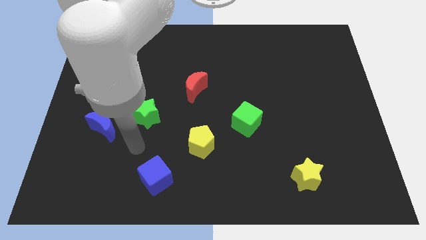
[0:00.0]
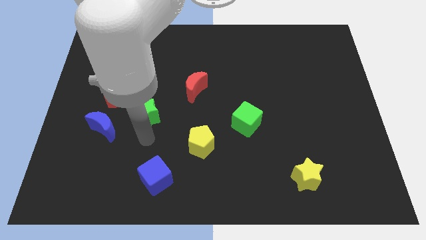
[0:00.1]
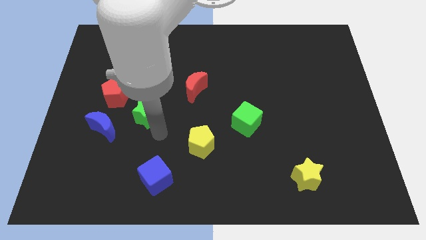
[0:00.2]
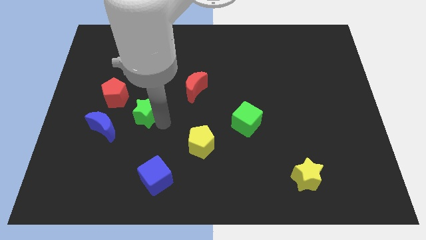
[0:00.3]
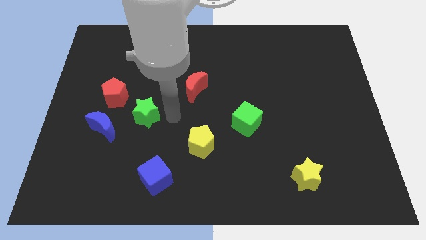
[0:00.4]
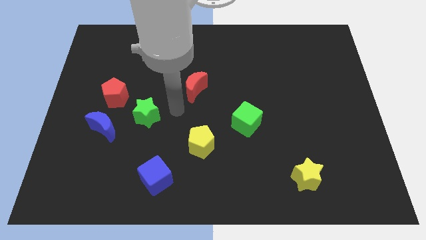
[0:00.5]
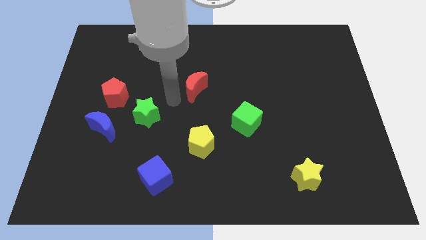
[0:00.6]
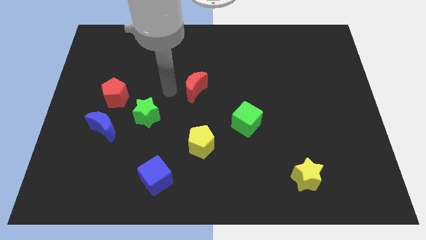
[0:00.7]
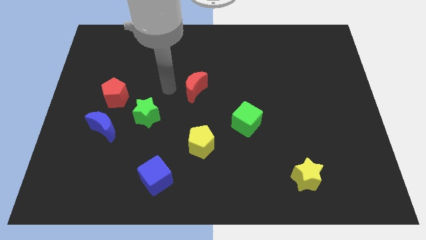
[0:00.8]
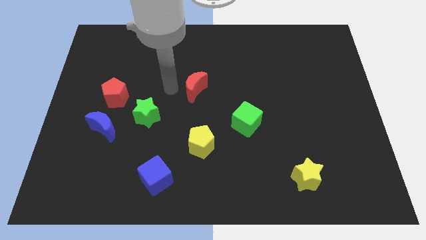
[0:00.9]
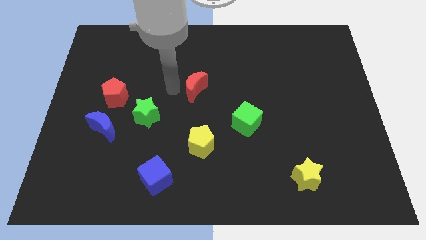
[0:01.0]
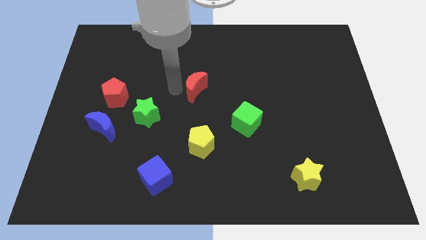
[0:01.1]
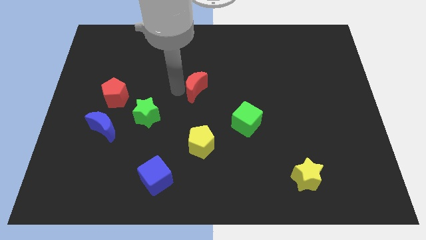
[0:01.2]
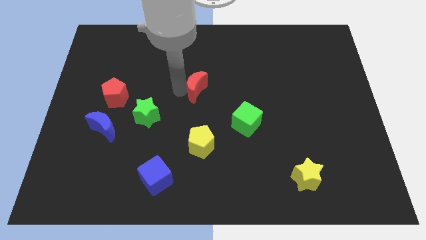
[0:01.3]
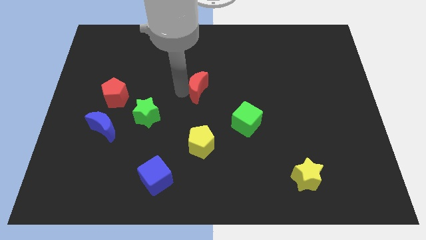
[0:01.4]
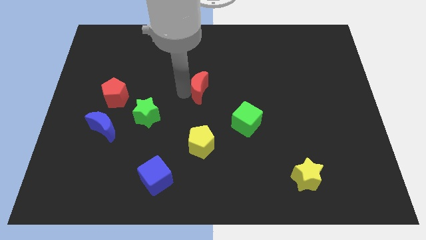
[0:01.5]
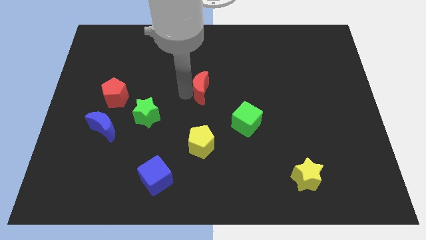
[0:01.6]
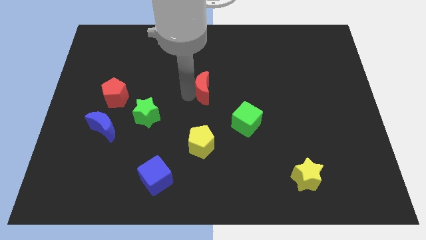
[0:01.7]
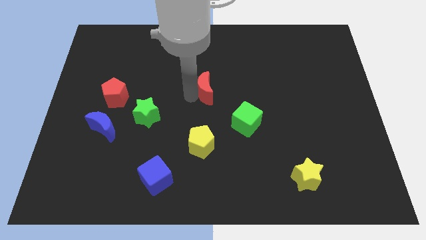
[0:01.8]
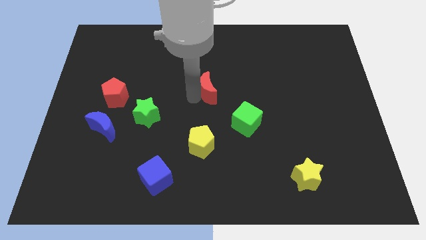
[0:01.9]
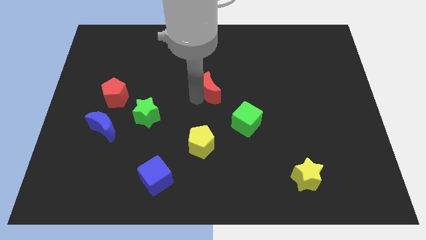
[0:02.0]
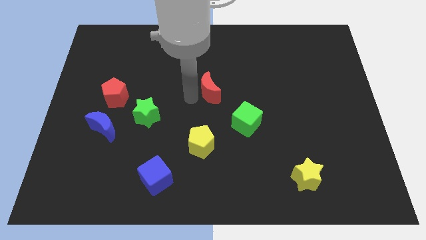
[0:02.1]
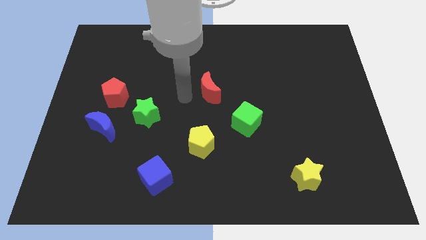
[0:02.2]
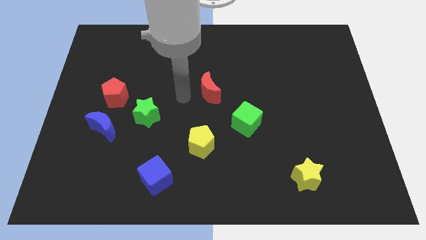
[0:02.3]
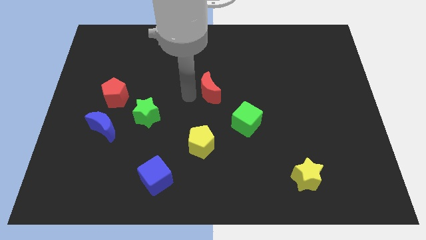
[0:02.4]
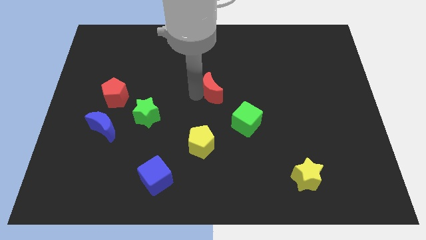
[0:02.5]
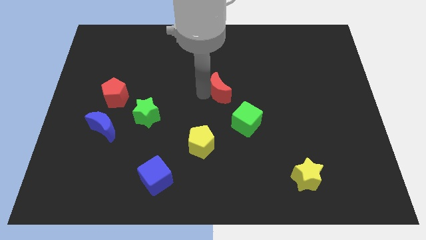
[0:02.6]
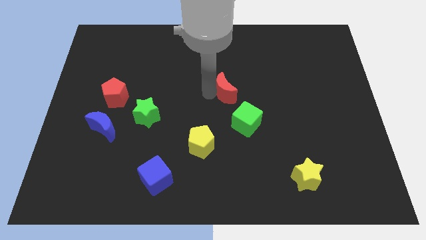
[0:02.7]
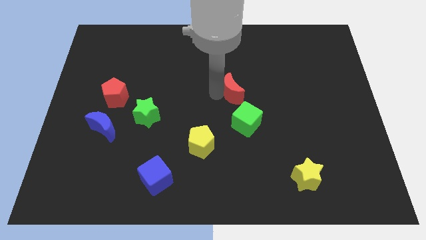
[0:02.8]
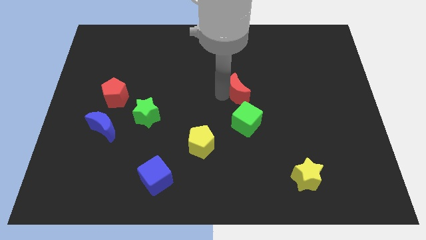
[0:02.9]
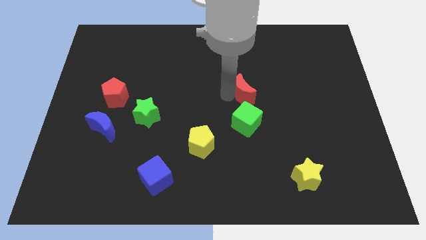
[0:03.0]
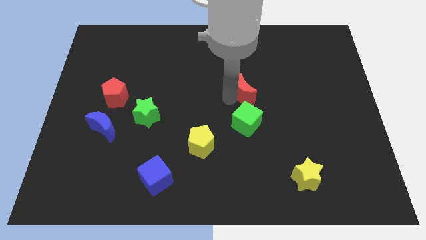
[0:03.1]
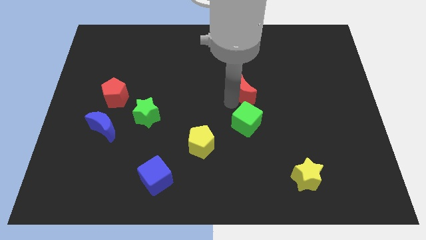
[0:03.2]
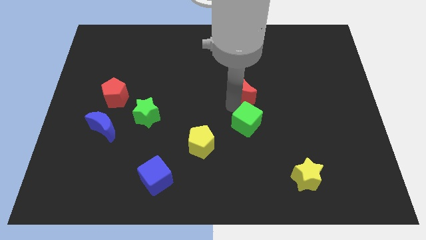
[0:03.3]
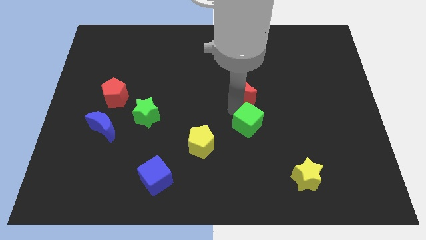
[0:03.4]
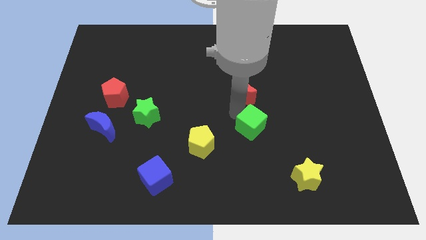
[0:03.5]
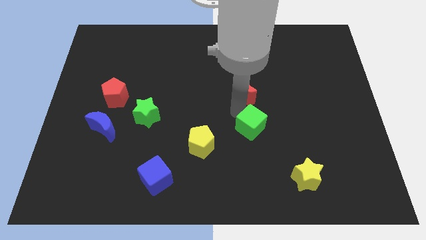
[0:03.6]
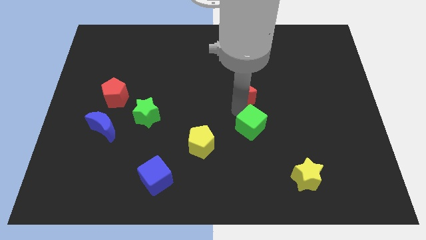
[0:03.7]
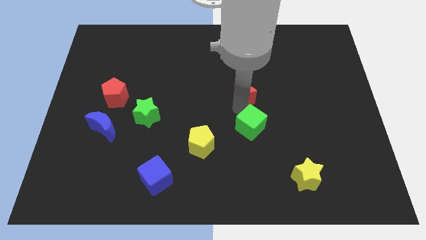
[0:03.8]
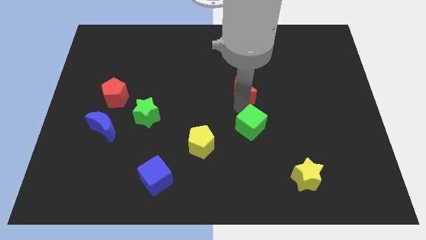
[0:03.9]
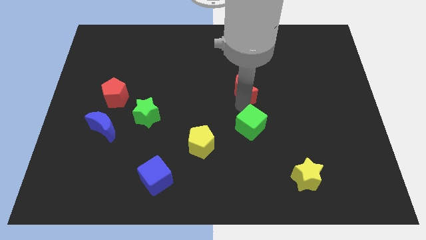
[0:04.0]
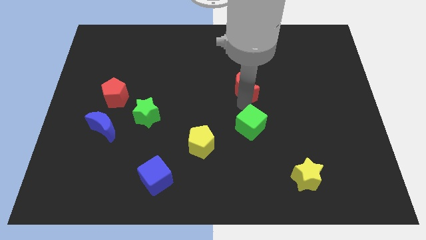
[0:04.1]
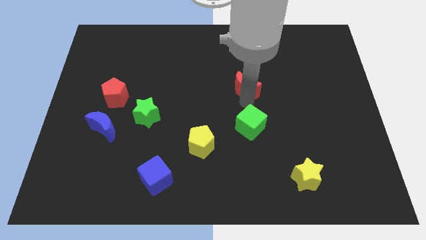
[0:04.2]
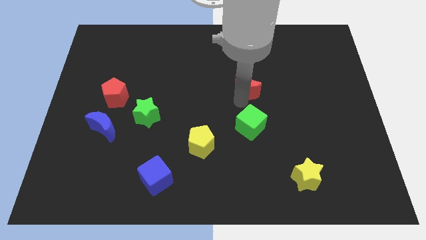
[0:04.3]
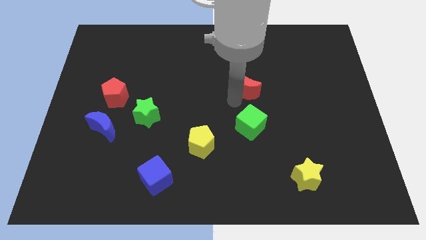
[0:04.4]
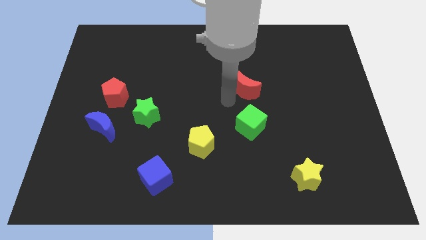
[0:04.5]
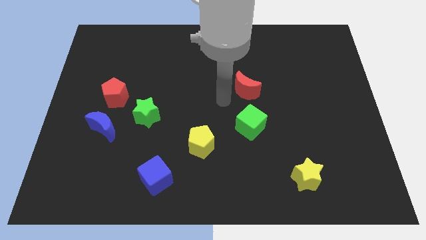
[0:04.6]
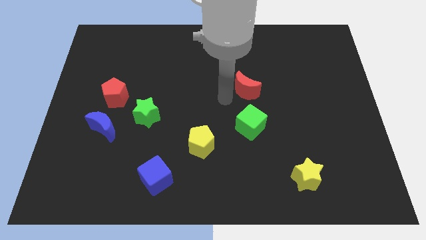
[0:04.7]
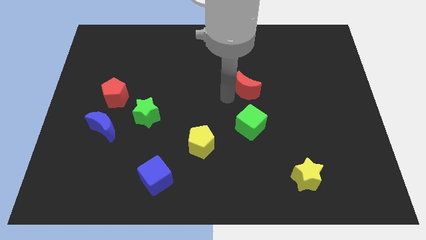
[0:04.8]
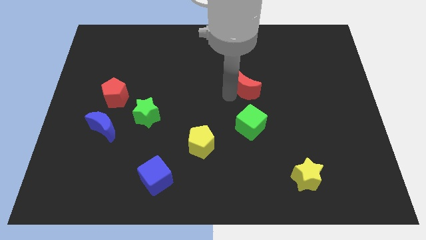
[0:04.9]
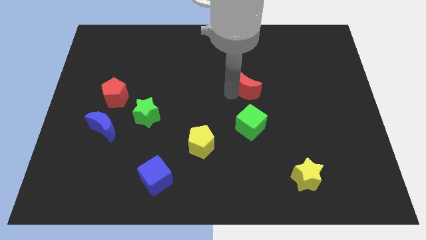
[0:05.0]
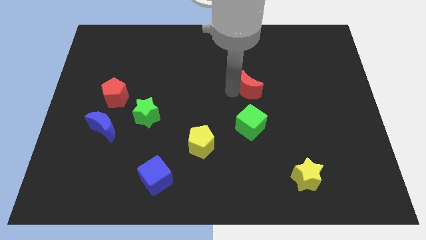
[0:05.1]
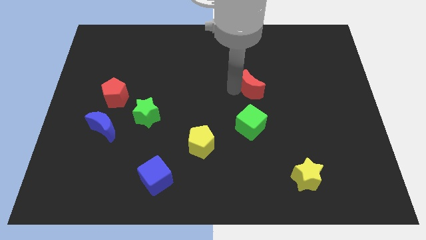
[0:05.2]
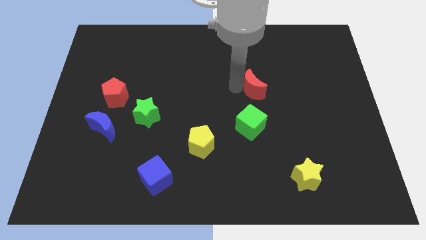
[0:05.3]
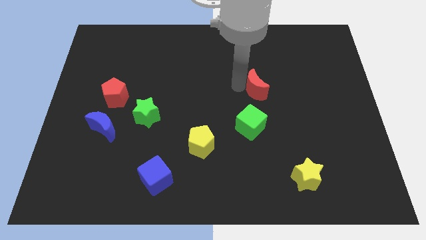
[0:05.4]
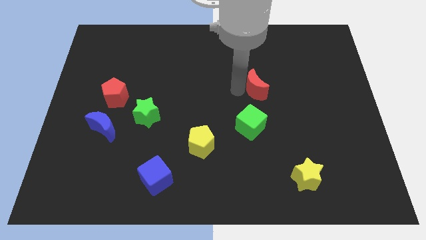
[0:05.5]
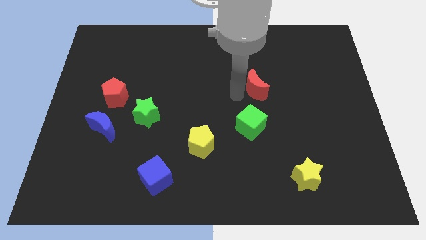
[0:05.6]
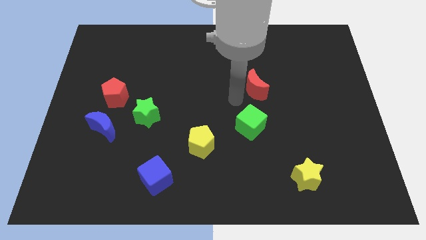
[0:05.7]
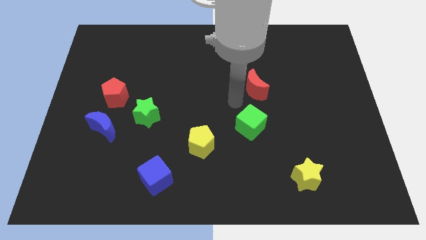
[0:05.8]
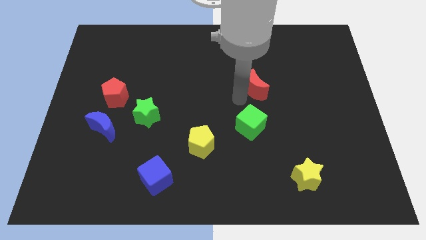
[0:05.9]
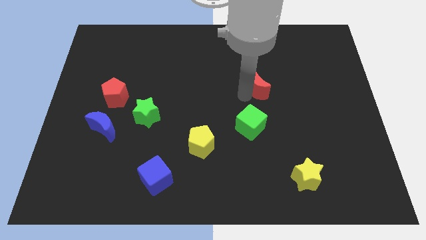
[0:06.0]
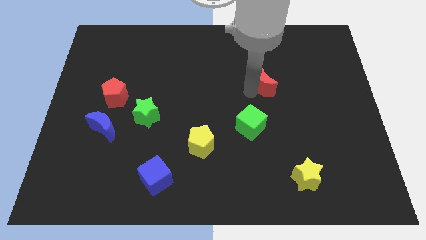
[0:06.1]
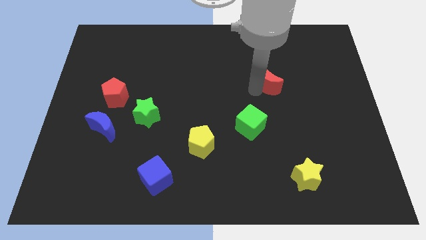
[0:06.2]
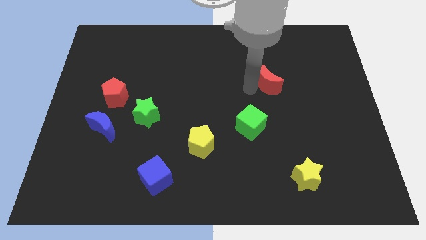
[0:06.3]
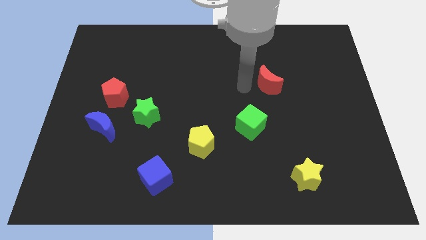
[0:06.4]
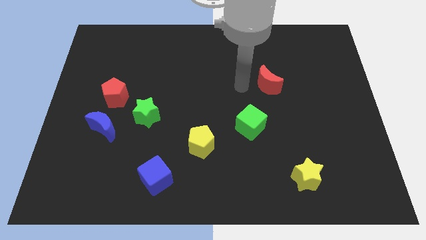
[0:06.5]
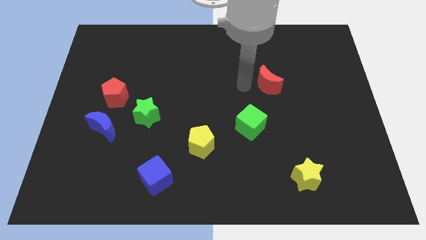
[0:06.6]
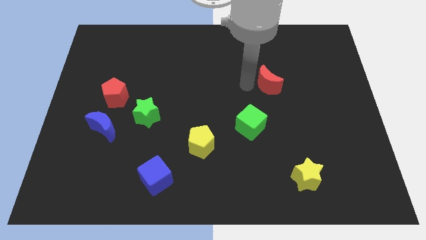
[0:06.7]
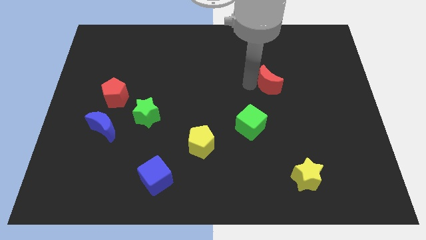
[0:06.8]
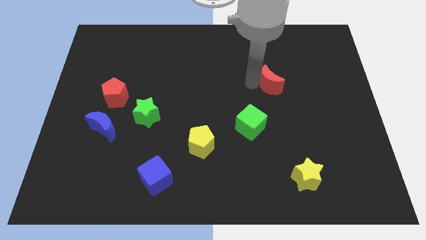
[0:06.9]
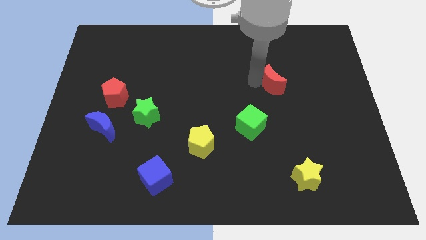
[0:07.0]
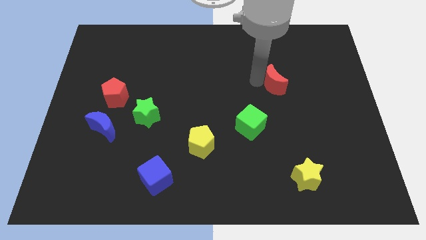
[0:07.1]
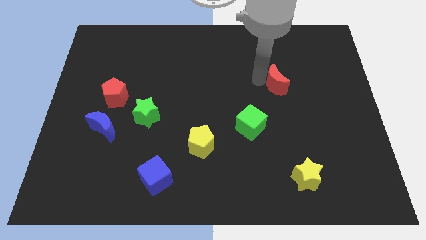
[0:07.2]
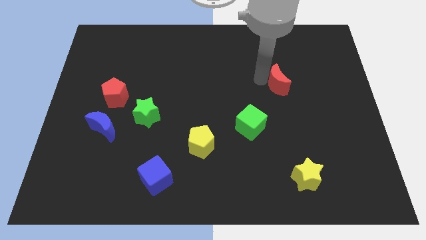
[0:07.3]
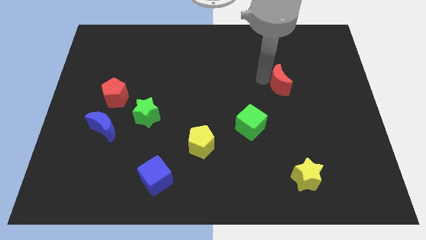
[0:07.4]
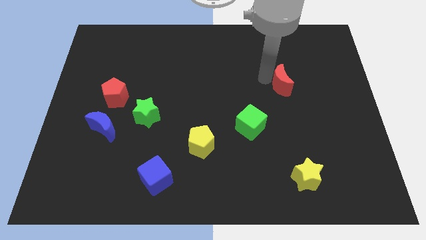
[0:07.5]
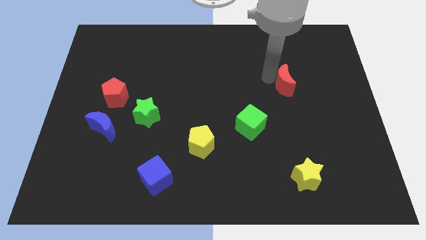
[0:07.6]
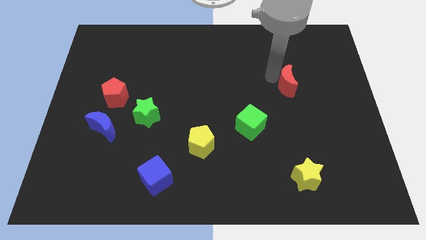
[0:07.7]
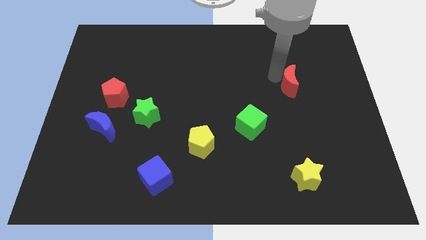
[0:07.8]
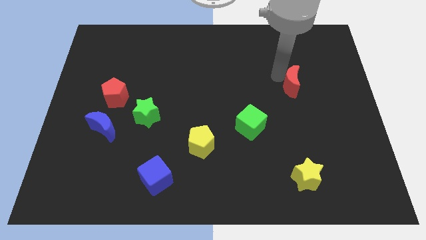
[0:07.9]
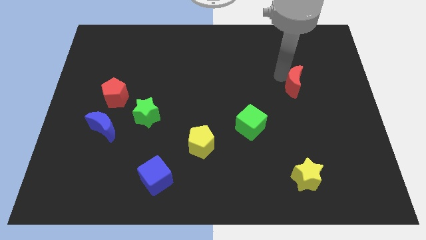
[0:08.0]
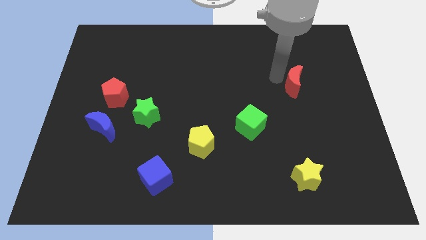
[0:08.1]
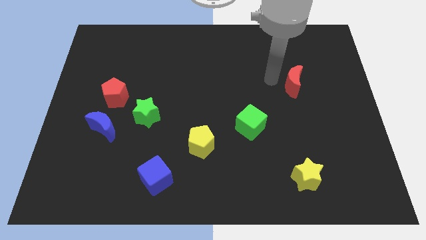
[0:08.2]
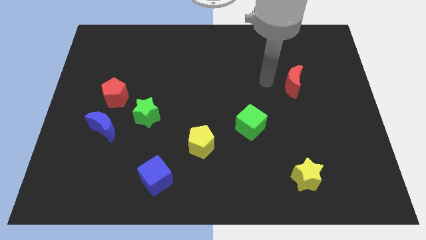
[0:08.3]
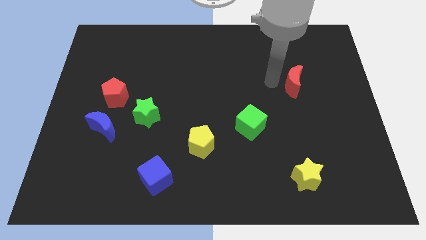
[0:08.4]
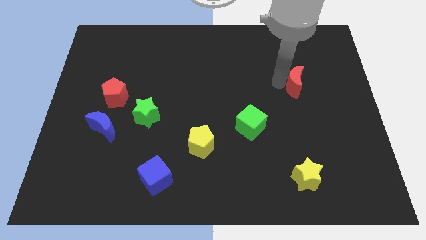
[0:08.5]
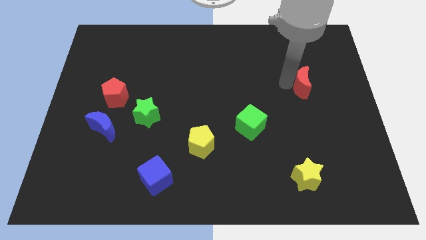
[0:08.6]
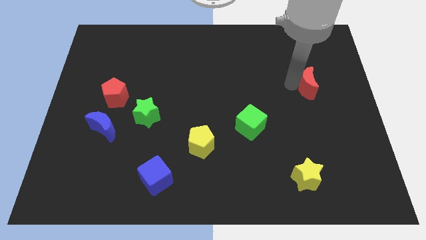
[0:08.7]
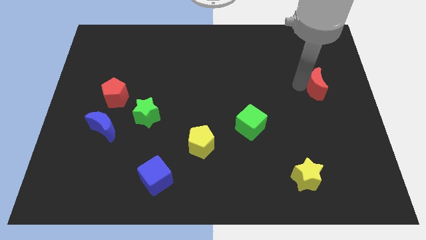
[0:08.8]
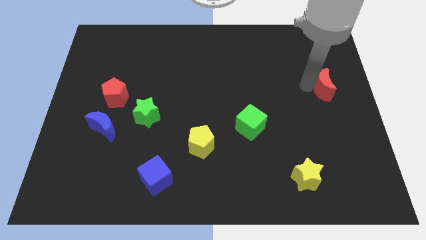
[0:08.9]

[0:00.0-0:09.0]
push the red moon to the right side of the board
